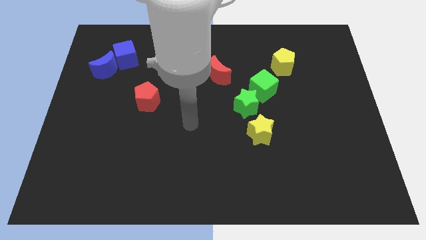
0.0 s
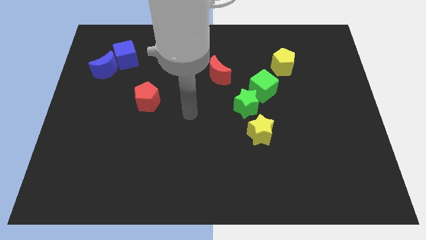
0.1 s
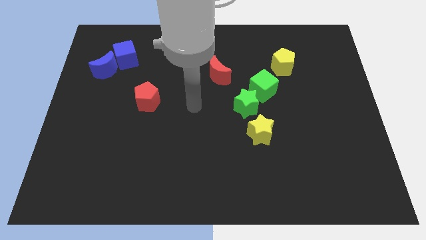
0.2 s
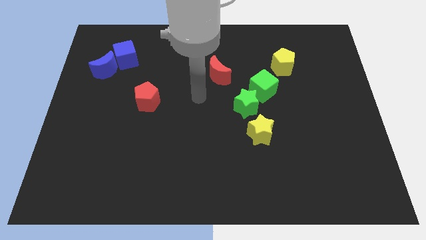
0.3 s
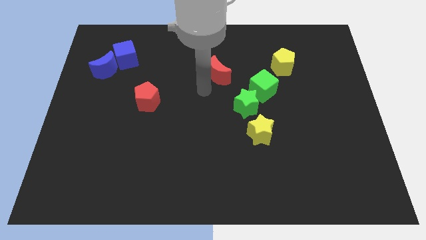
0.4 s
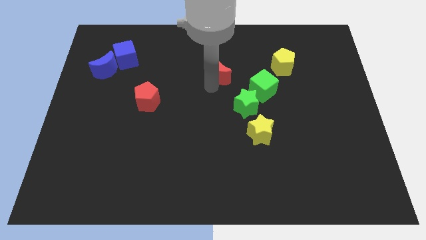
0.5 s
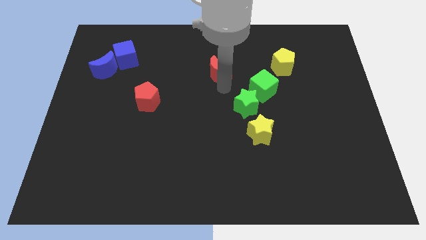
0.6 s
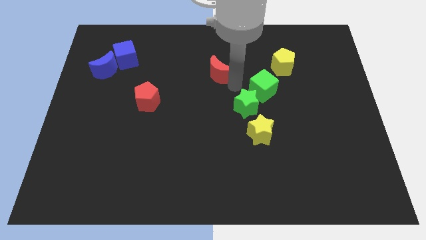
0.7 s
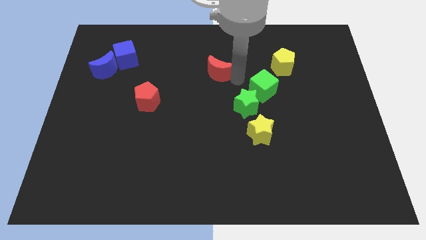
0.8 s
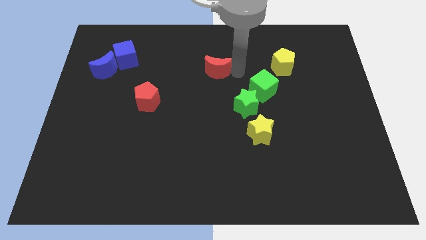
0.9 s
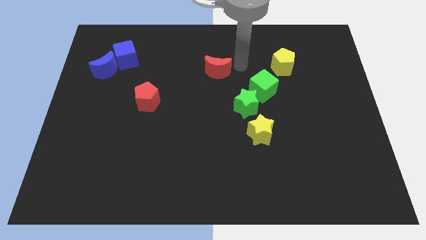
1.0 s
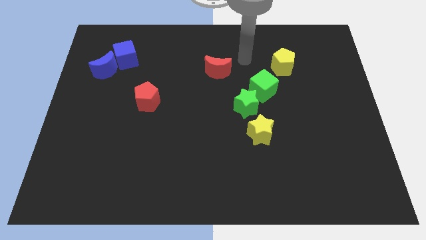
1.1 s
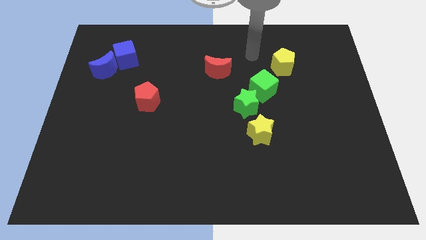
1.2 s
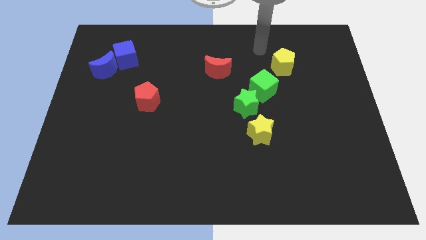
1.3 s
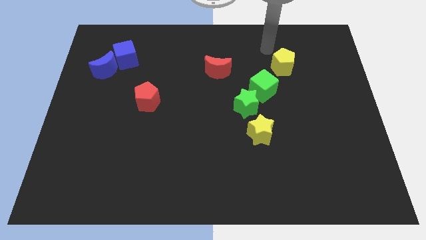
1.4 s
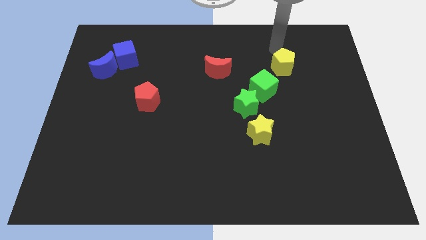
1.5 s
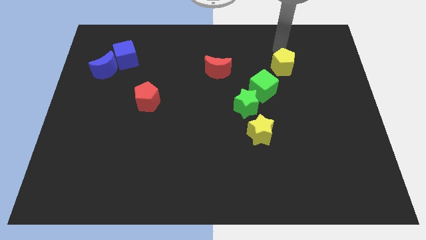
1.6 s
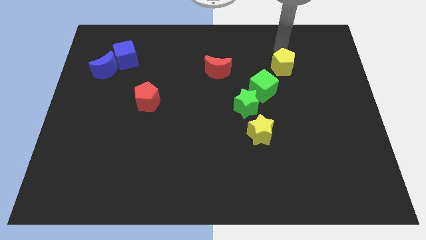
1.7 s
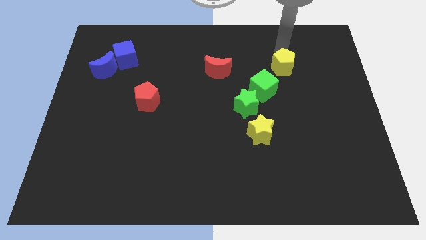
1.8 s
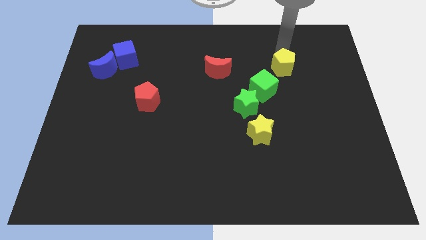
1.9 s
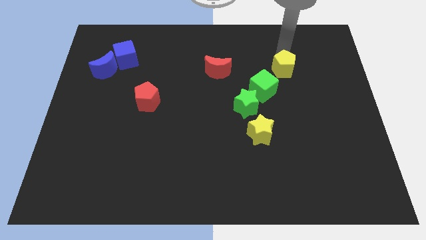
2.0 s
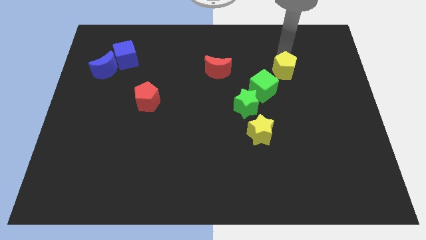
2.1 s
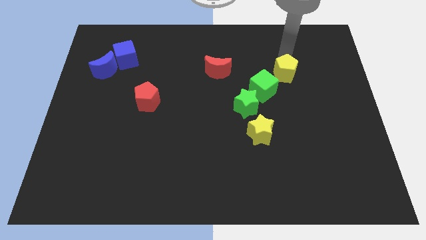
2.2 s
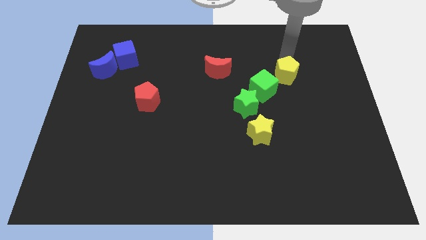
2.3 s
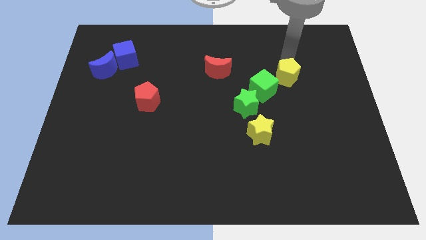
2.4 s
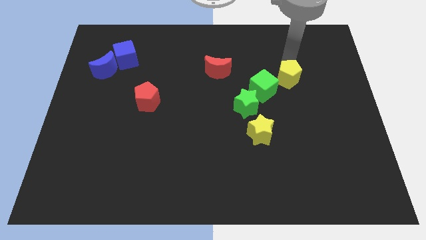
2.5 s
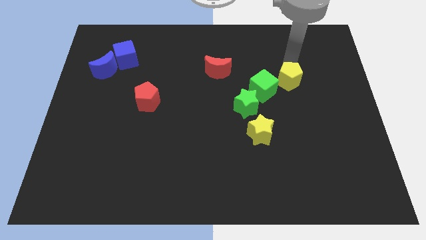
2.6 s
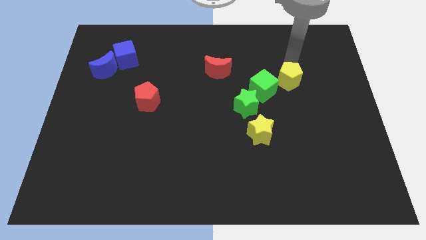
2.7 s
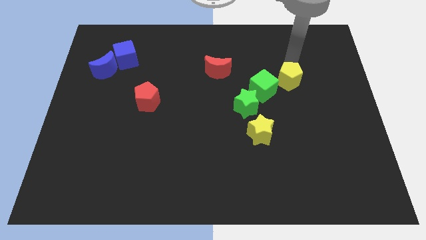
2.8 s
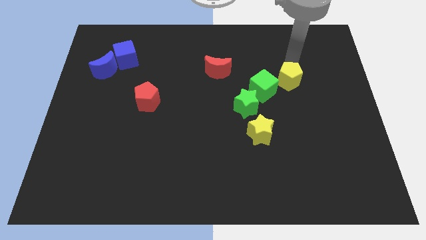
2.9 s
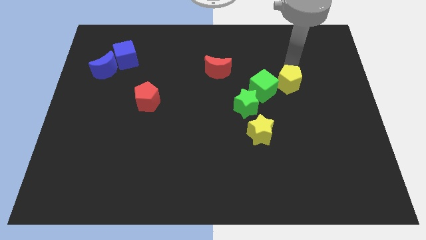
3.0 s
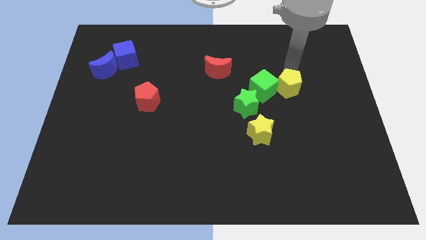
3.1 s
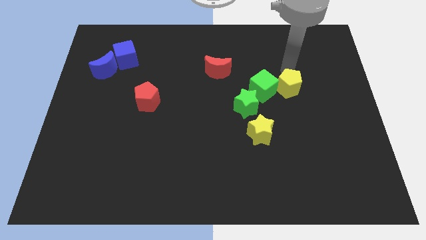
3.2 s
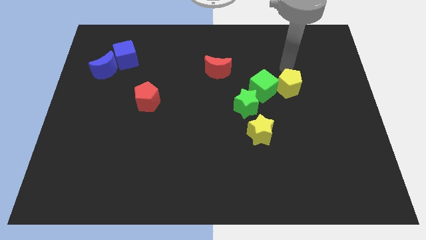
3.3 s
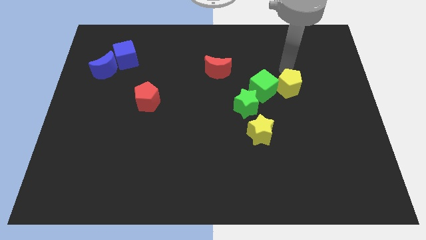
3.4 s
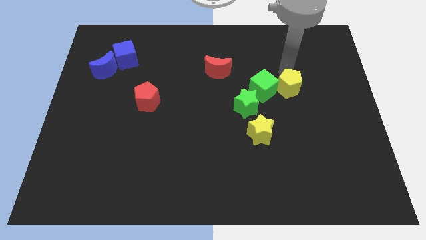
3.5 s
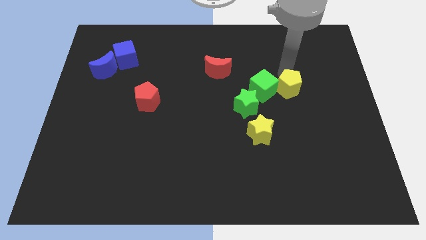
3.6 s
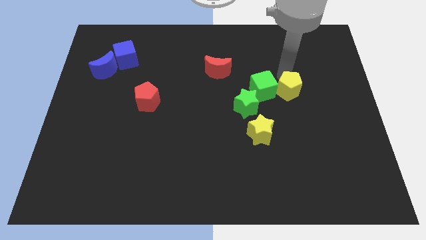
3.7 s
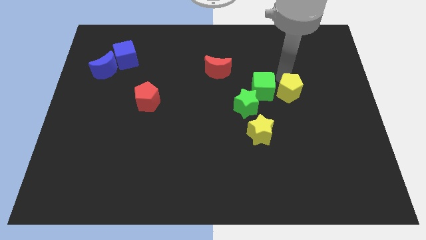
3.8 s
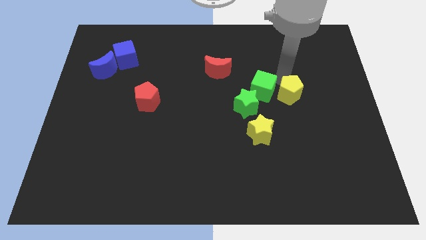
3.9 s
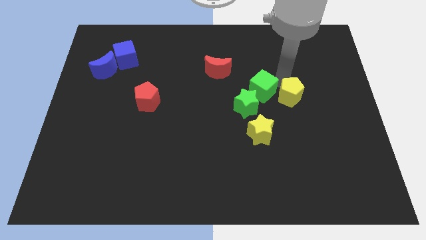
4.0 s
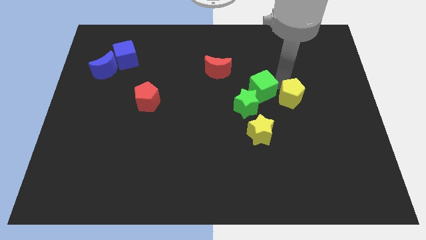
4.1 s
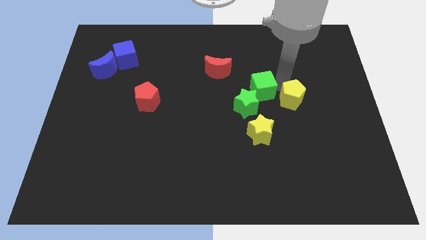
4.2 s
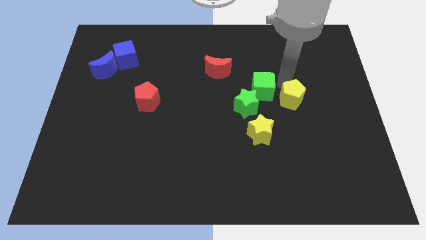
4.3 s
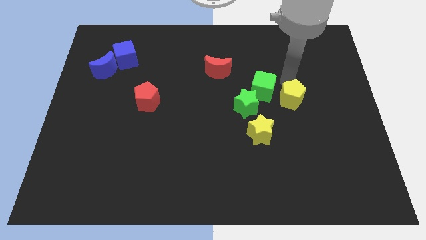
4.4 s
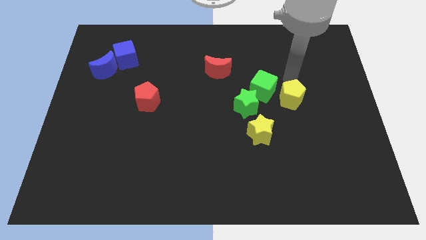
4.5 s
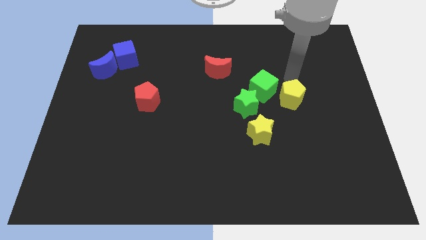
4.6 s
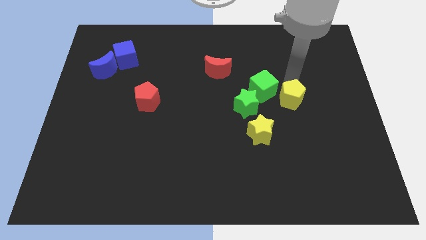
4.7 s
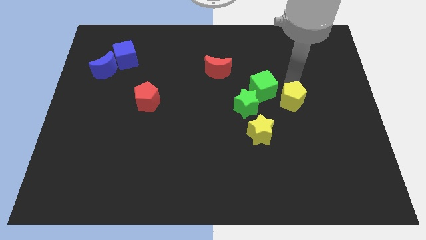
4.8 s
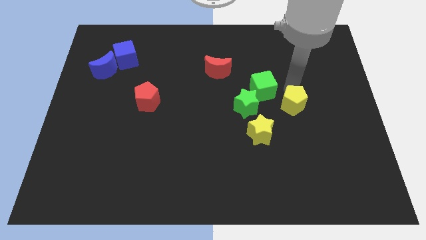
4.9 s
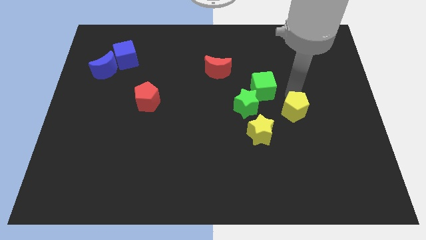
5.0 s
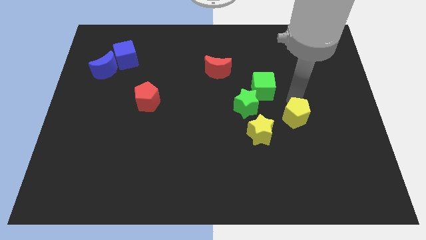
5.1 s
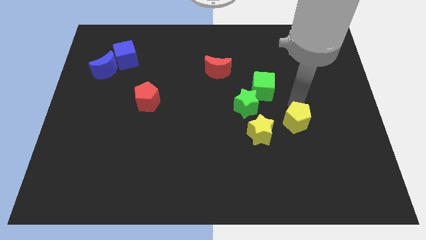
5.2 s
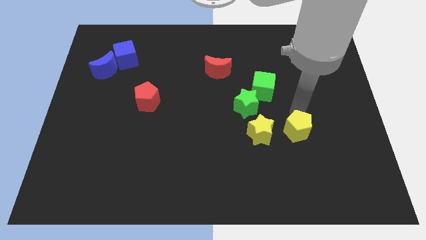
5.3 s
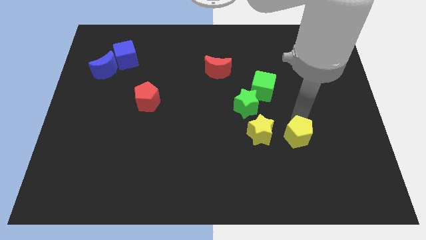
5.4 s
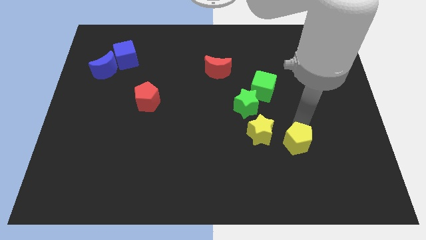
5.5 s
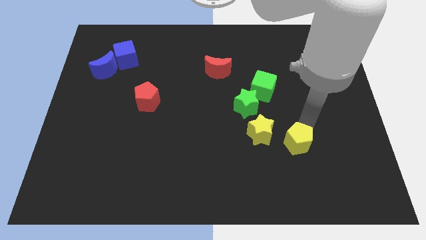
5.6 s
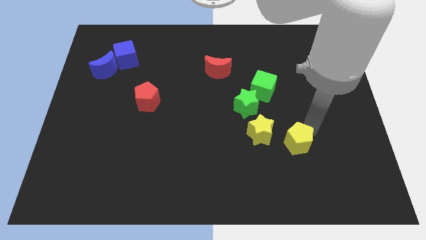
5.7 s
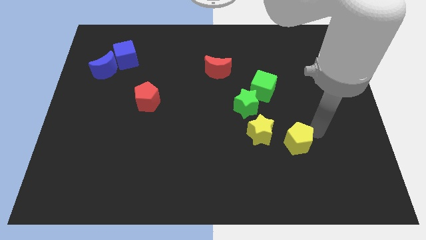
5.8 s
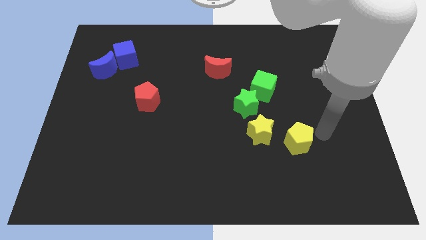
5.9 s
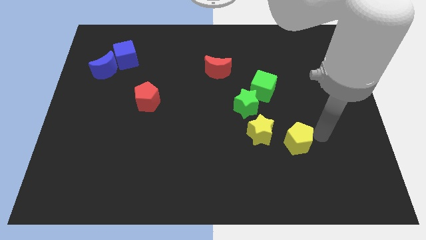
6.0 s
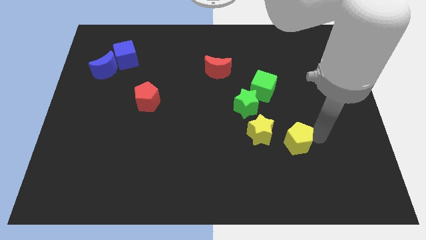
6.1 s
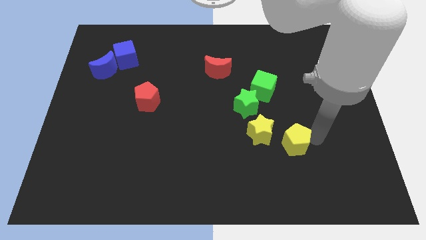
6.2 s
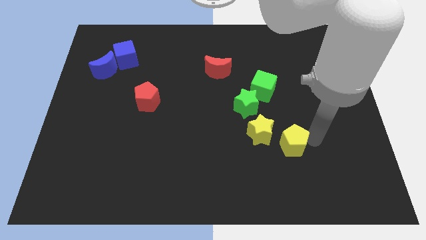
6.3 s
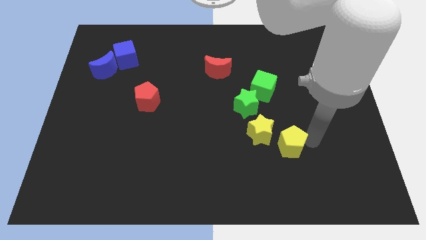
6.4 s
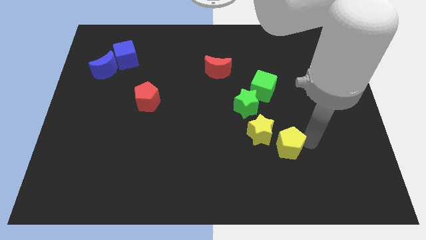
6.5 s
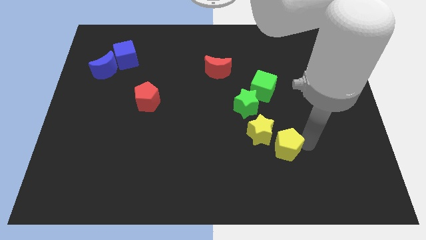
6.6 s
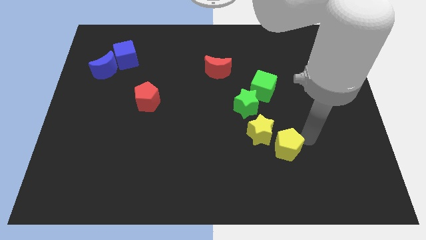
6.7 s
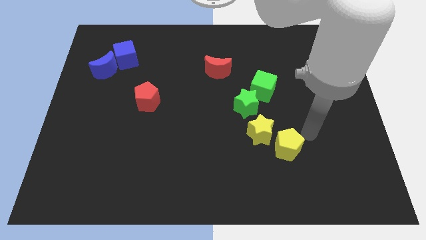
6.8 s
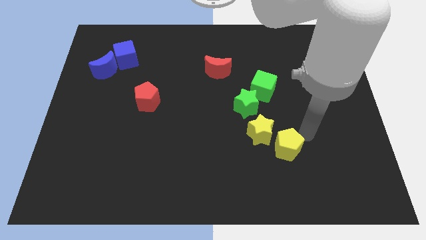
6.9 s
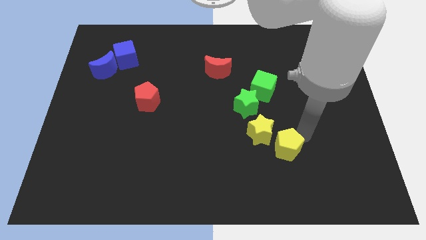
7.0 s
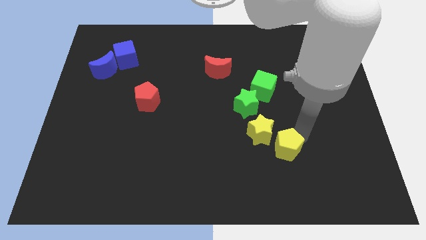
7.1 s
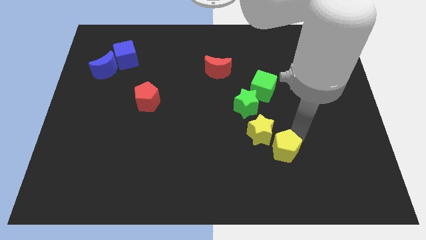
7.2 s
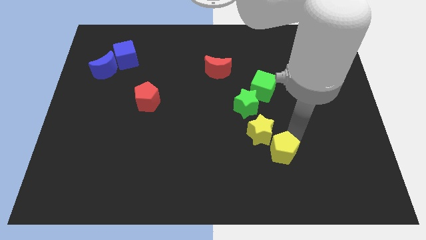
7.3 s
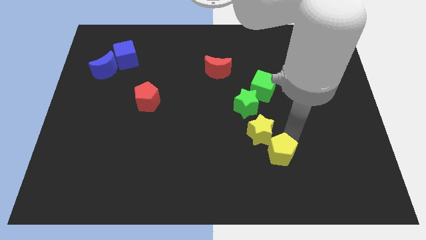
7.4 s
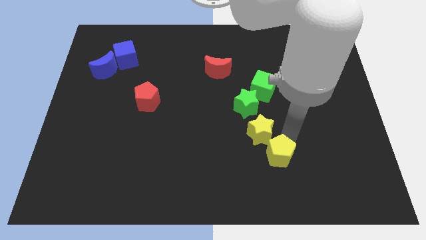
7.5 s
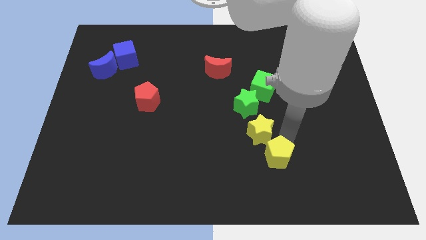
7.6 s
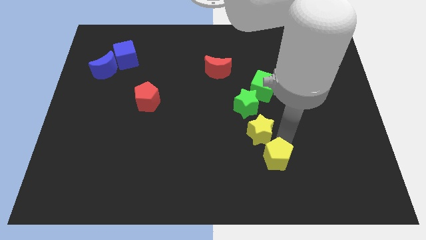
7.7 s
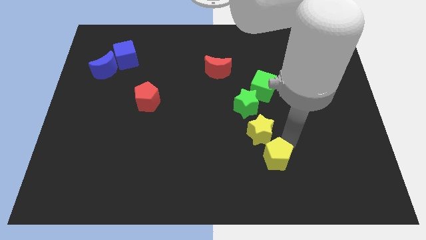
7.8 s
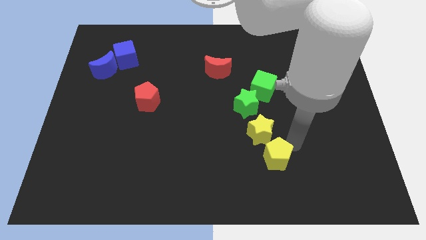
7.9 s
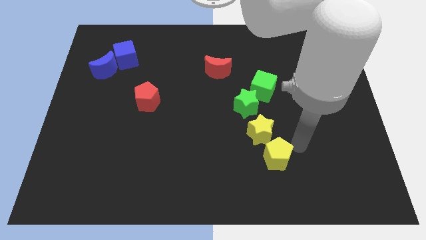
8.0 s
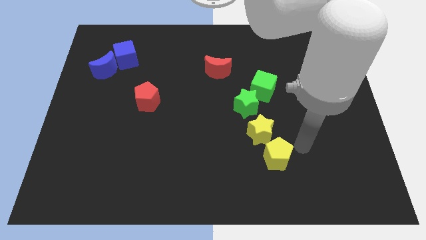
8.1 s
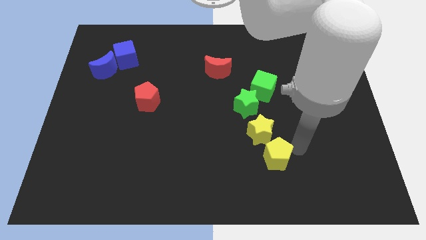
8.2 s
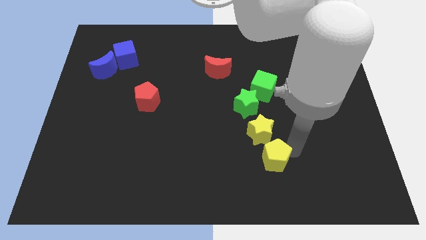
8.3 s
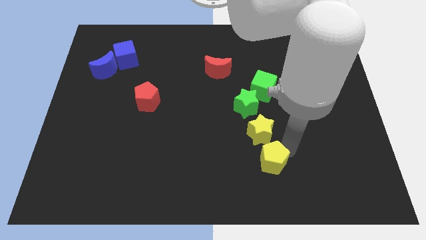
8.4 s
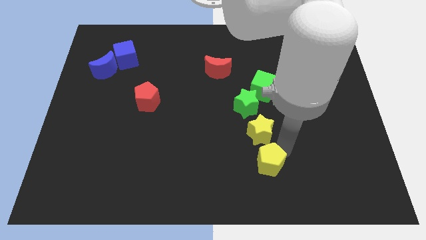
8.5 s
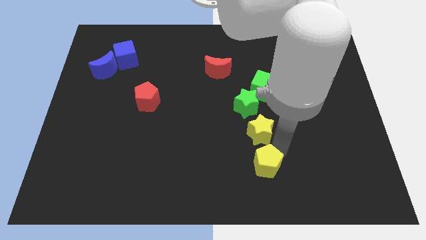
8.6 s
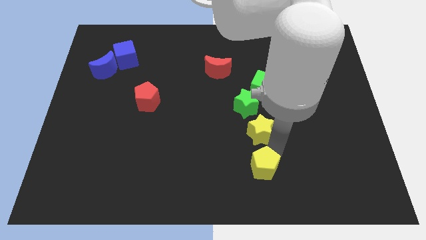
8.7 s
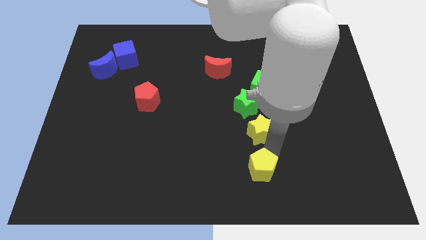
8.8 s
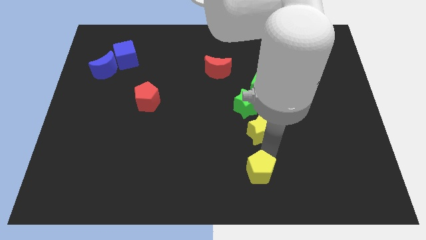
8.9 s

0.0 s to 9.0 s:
put the yellow pentagon to the bottom side
